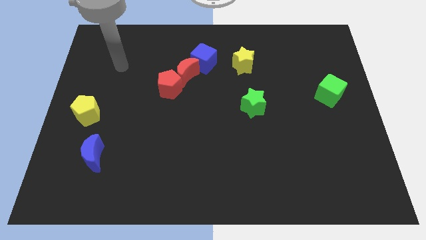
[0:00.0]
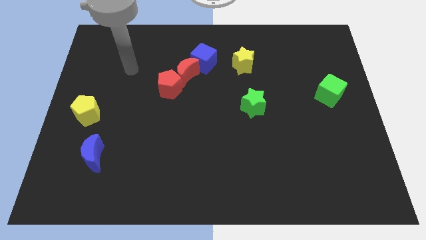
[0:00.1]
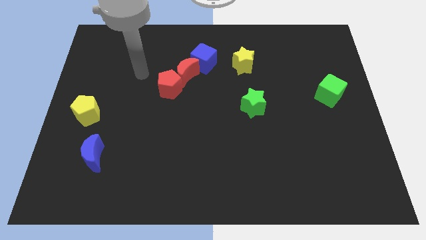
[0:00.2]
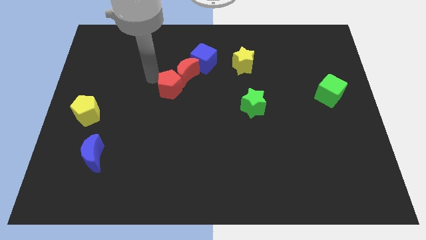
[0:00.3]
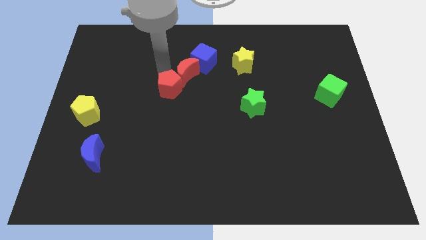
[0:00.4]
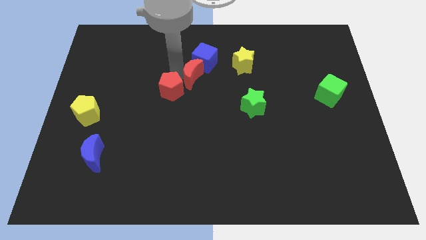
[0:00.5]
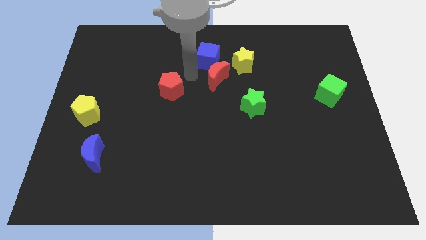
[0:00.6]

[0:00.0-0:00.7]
pull the red pentagon apart from the red moon

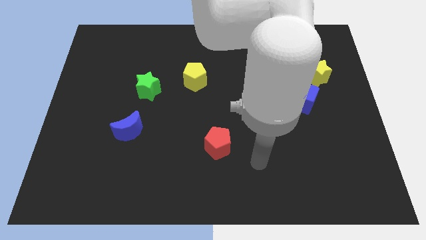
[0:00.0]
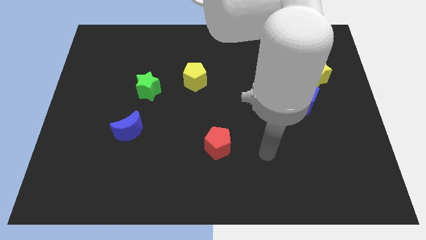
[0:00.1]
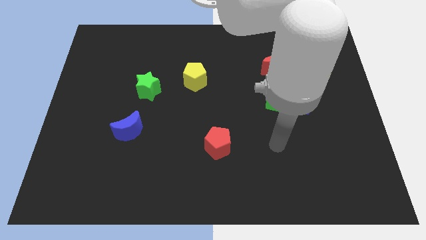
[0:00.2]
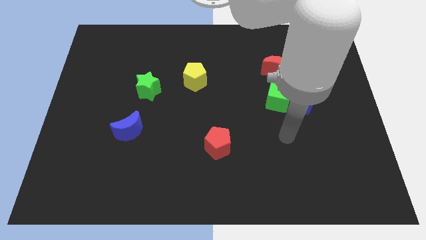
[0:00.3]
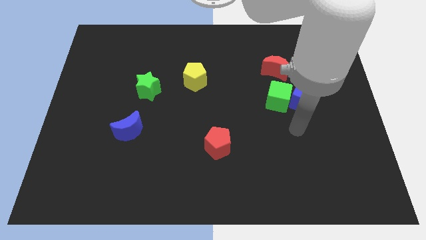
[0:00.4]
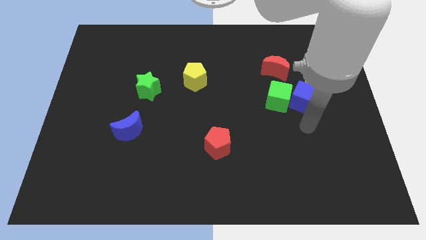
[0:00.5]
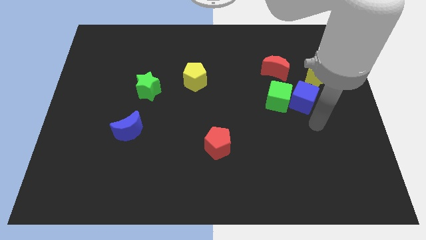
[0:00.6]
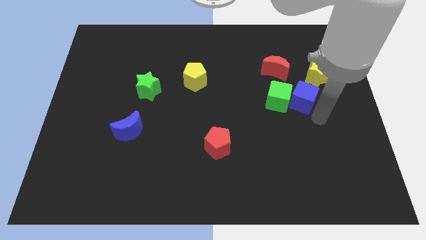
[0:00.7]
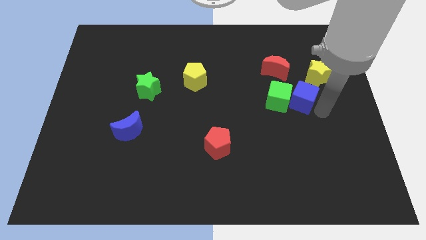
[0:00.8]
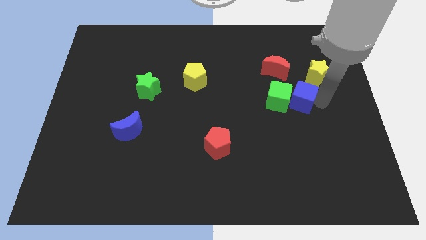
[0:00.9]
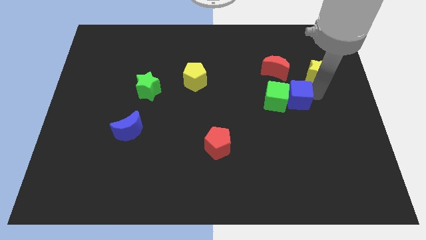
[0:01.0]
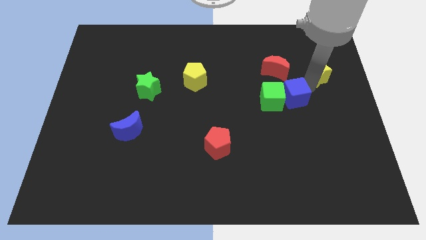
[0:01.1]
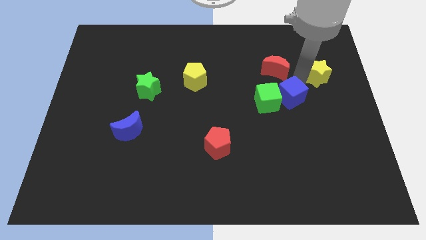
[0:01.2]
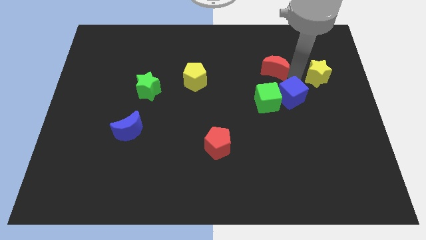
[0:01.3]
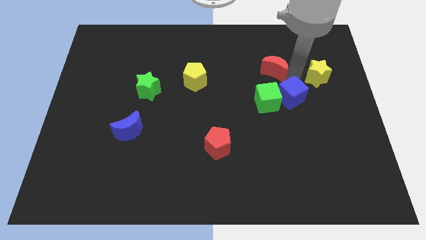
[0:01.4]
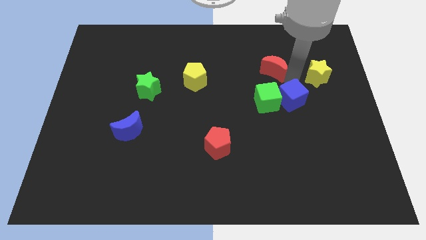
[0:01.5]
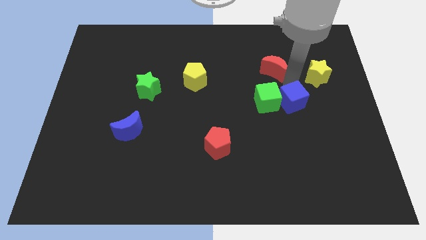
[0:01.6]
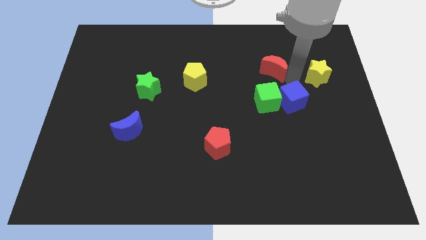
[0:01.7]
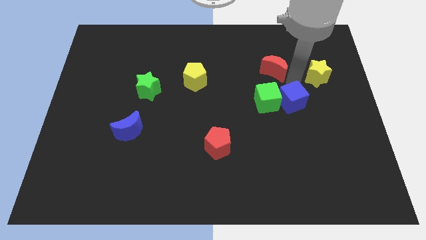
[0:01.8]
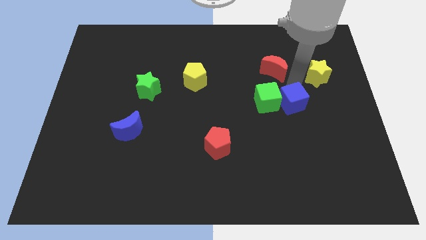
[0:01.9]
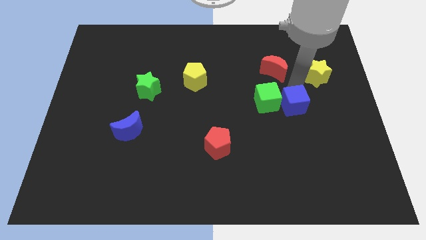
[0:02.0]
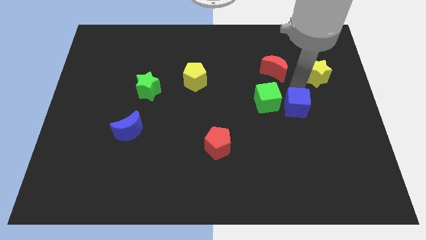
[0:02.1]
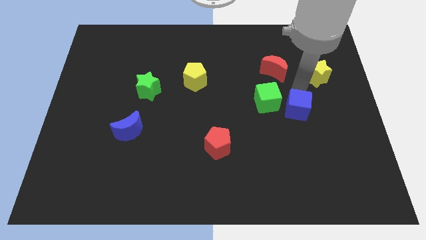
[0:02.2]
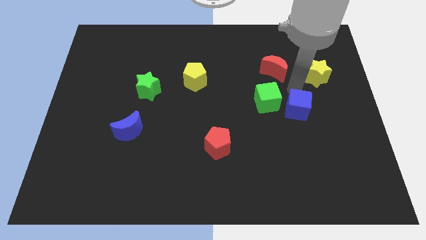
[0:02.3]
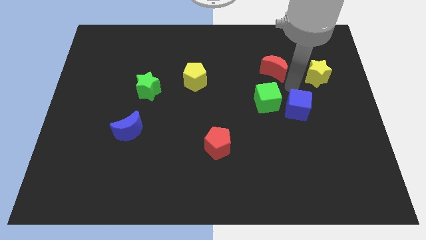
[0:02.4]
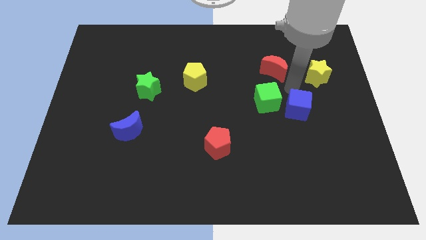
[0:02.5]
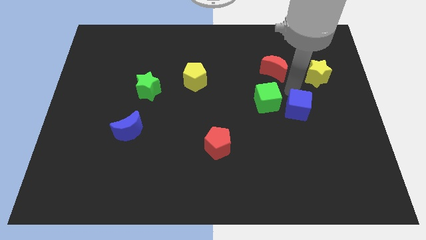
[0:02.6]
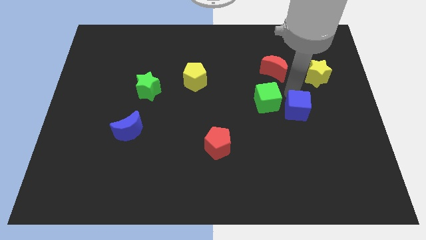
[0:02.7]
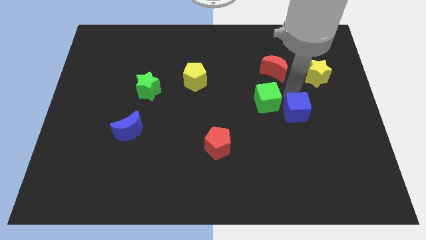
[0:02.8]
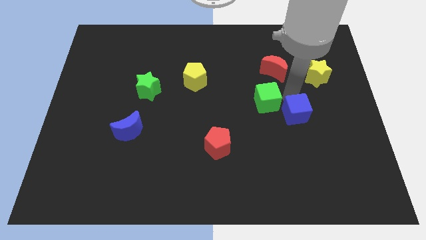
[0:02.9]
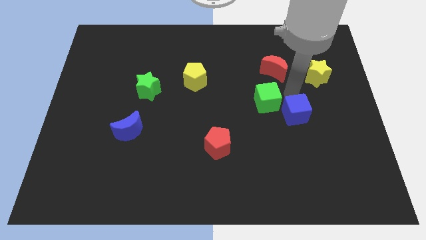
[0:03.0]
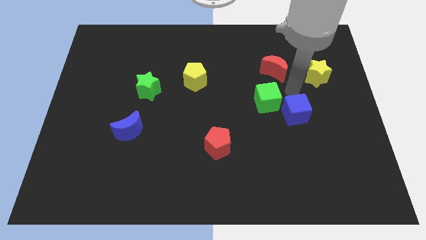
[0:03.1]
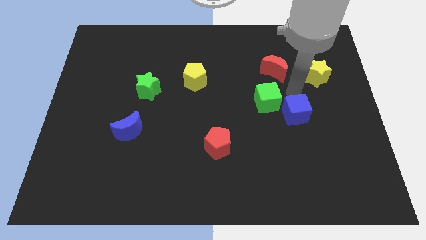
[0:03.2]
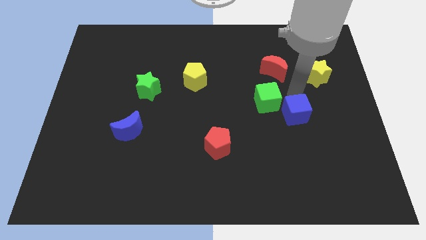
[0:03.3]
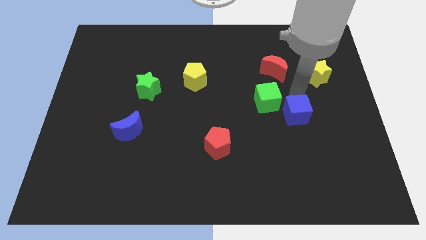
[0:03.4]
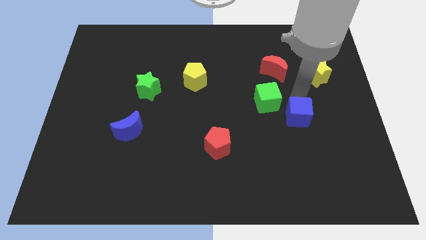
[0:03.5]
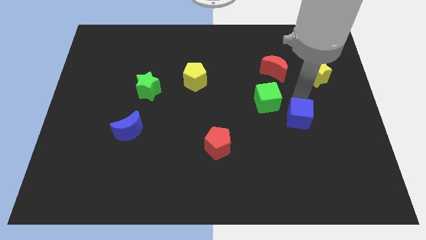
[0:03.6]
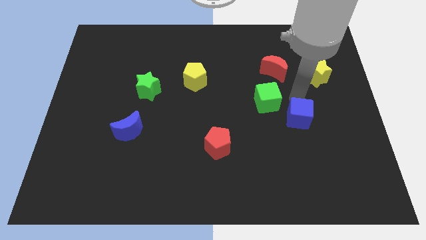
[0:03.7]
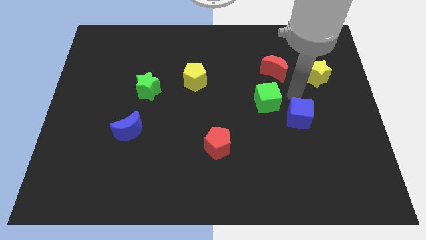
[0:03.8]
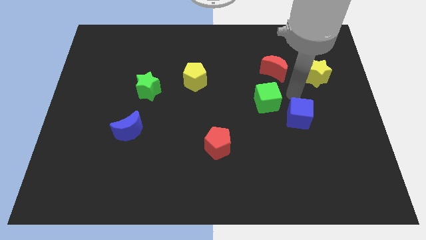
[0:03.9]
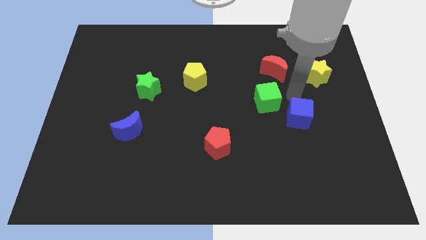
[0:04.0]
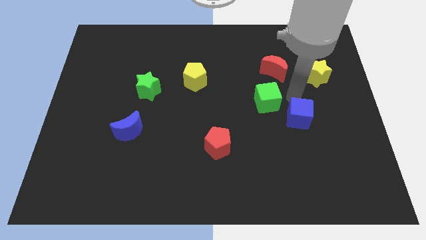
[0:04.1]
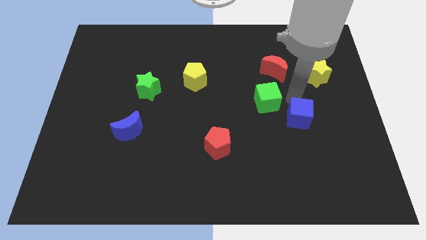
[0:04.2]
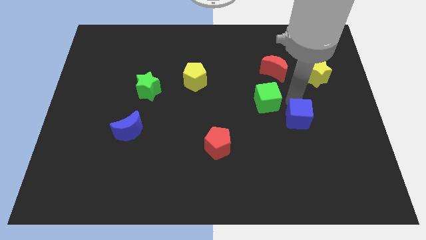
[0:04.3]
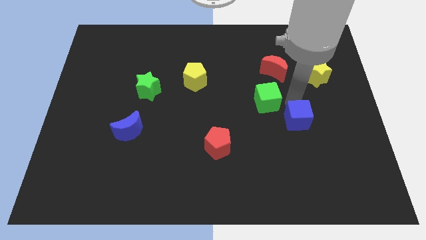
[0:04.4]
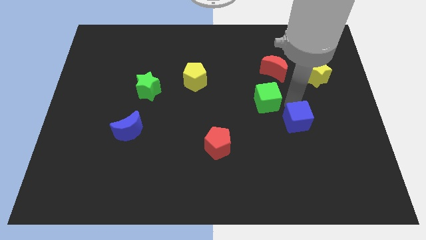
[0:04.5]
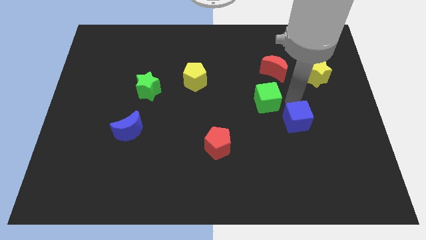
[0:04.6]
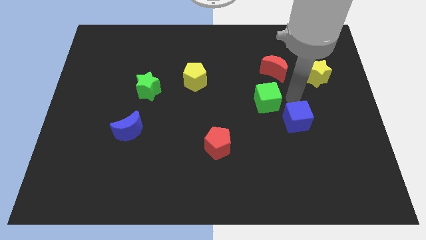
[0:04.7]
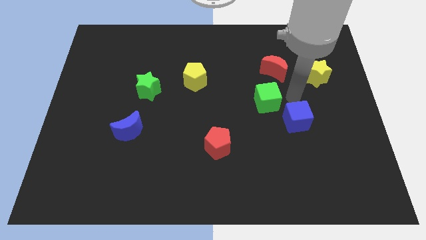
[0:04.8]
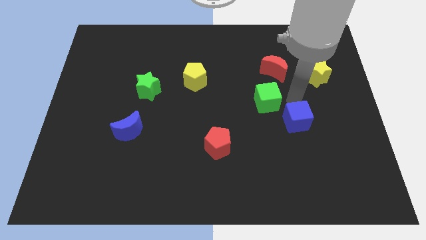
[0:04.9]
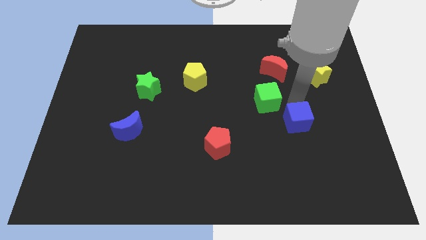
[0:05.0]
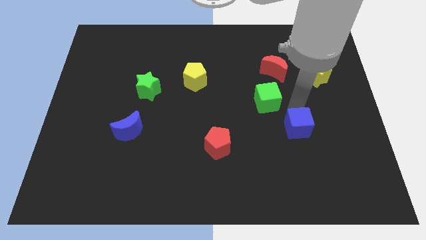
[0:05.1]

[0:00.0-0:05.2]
move the blue cube away from the green cube and yellow star

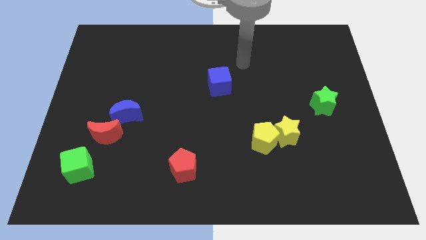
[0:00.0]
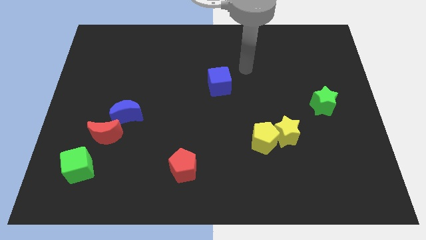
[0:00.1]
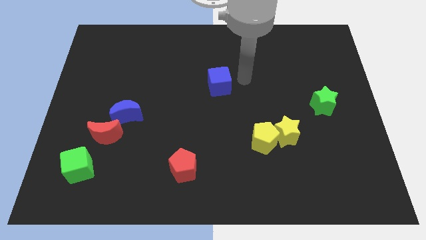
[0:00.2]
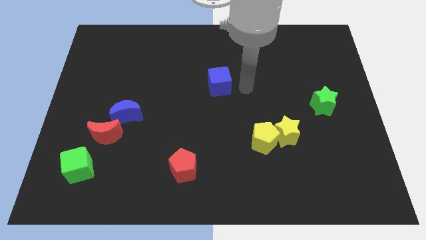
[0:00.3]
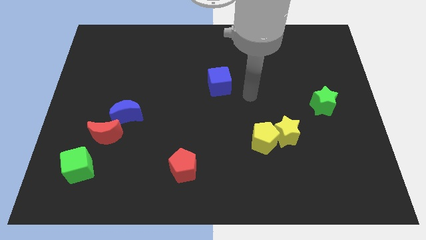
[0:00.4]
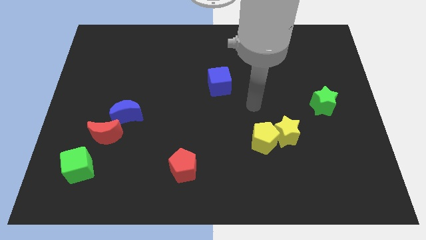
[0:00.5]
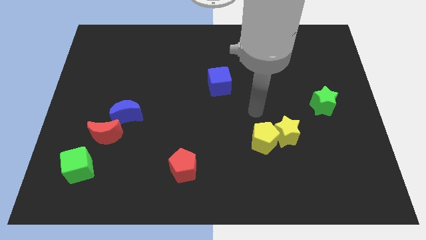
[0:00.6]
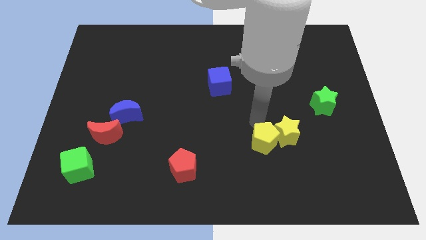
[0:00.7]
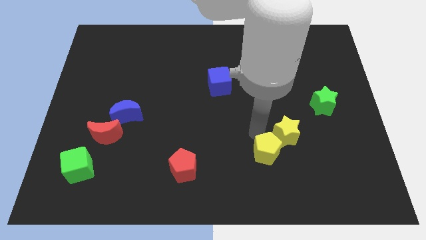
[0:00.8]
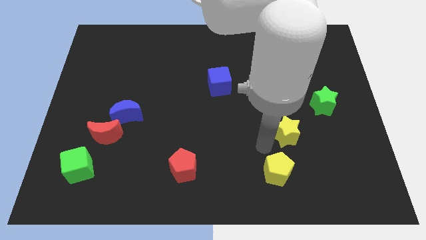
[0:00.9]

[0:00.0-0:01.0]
pull the yellow star apart from the yellow pentagon

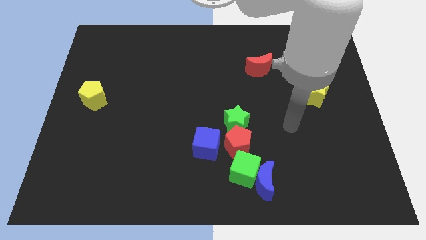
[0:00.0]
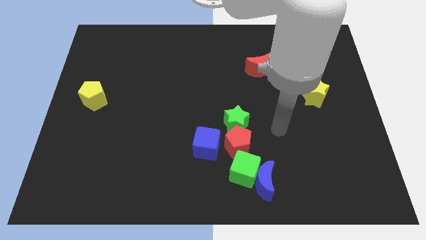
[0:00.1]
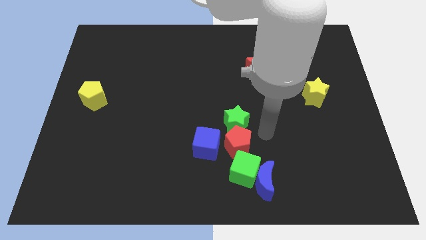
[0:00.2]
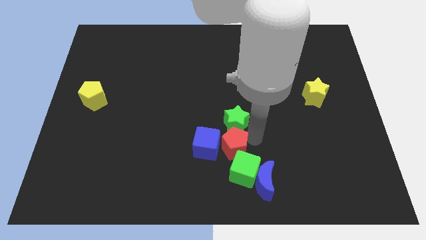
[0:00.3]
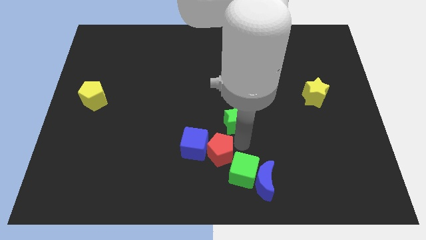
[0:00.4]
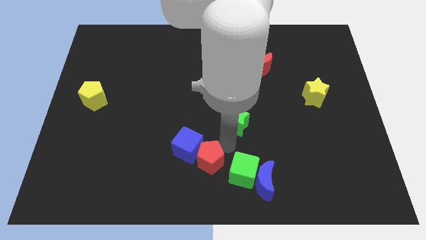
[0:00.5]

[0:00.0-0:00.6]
move the green star away from the red pentagon and blue cube

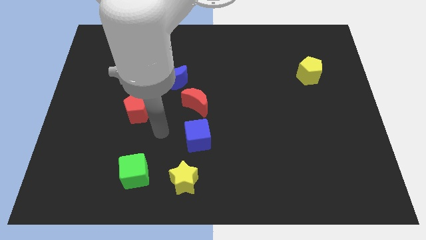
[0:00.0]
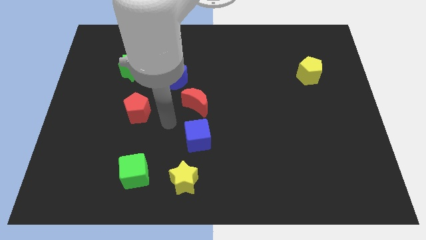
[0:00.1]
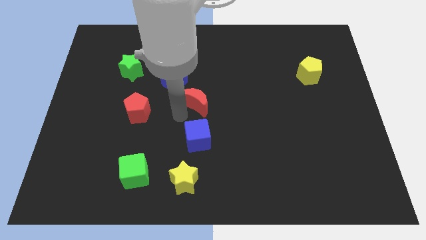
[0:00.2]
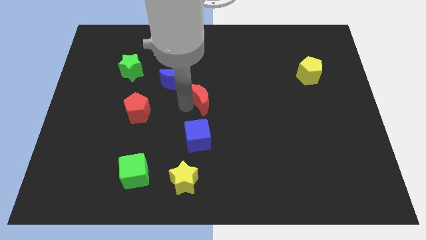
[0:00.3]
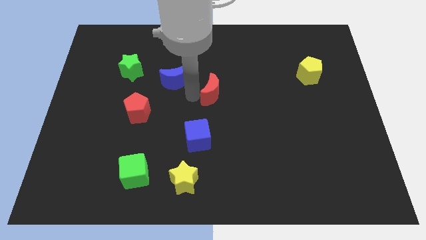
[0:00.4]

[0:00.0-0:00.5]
pull the blue moon apart from the red moon

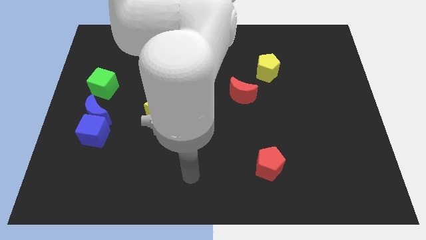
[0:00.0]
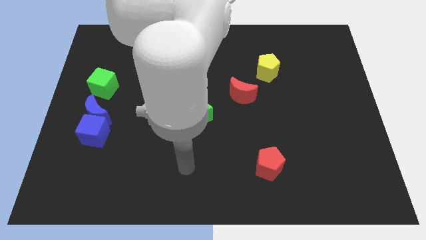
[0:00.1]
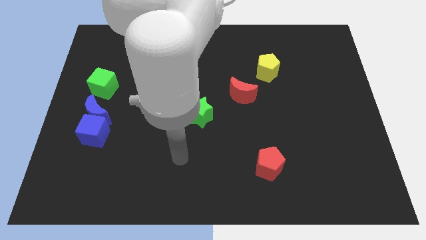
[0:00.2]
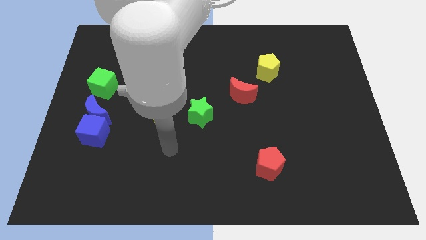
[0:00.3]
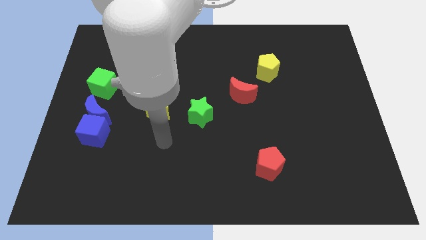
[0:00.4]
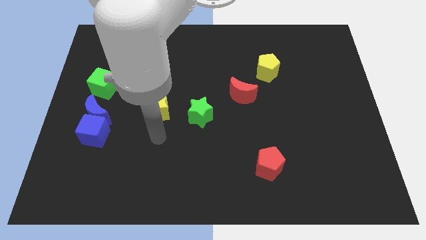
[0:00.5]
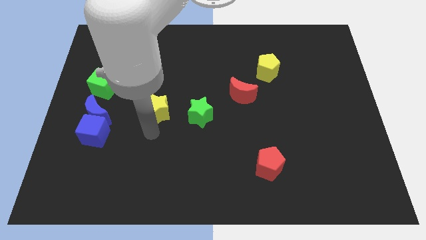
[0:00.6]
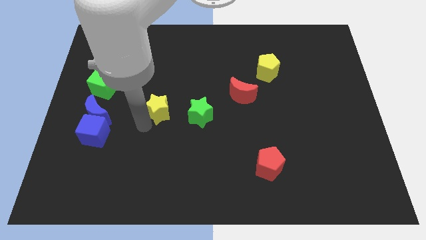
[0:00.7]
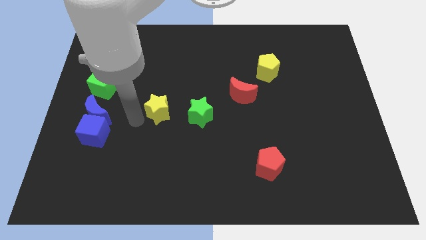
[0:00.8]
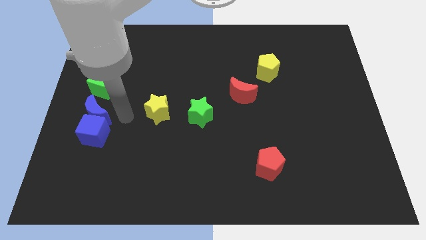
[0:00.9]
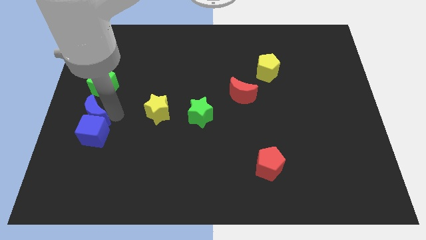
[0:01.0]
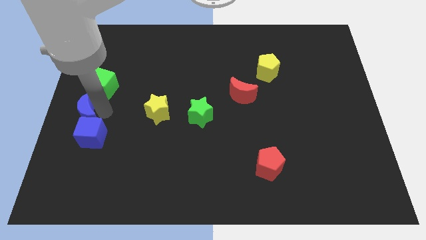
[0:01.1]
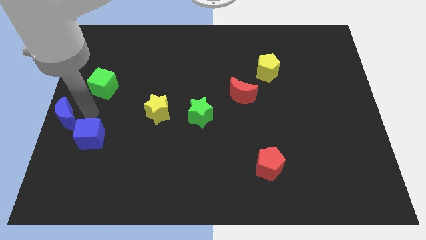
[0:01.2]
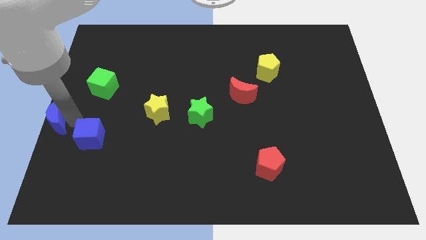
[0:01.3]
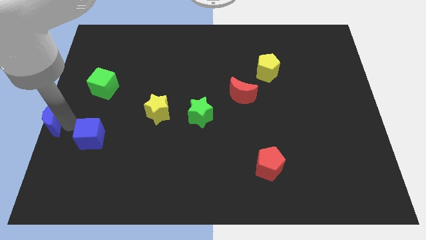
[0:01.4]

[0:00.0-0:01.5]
pull the blue cube apart from the blue moon
